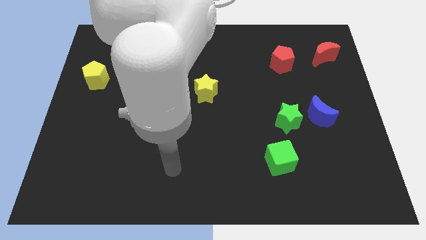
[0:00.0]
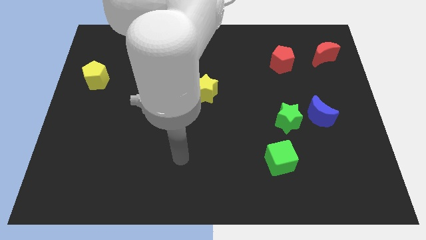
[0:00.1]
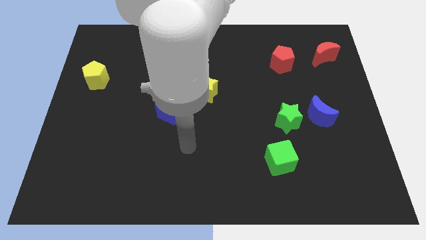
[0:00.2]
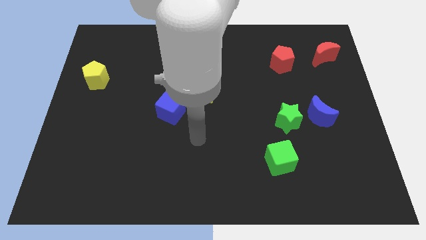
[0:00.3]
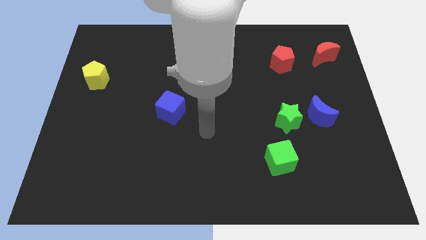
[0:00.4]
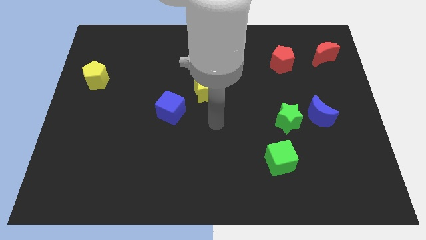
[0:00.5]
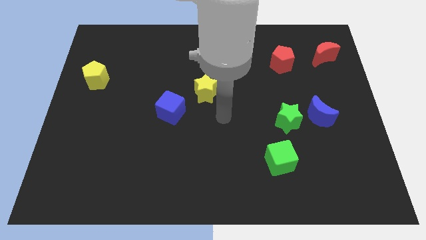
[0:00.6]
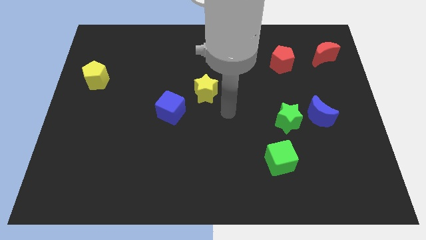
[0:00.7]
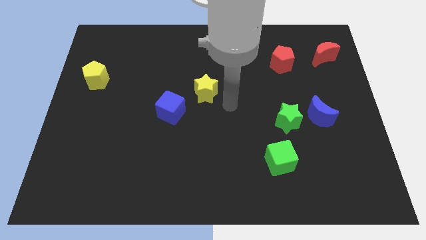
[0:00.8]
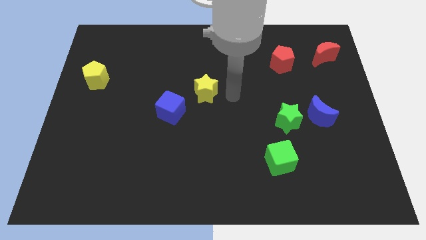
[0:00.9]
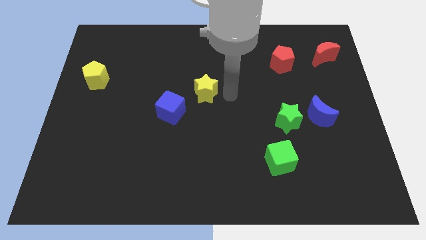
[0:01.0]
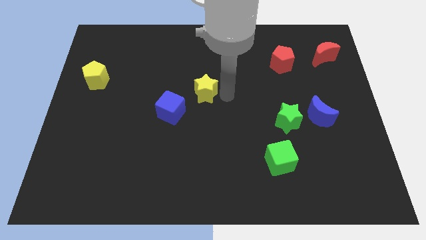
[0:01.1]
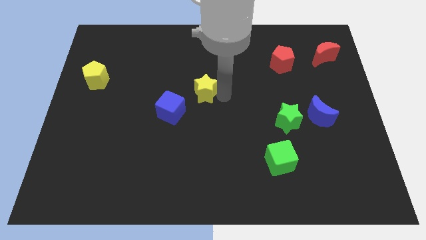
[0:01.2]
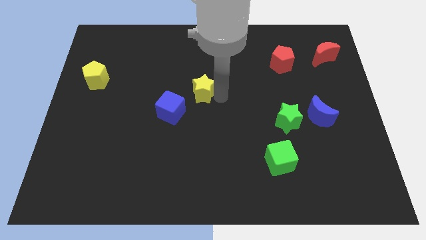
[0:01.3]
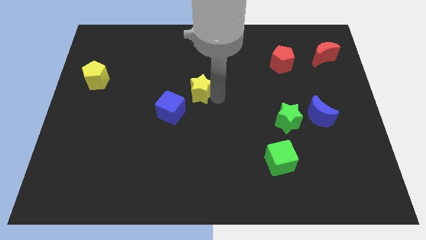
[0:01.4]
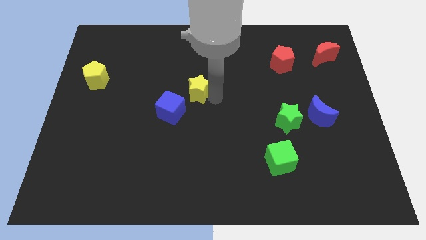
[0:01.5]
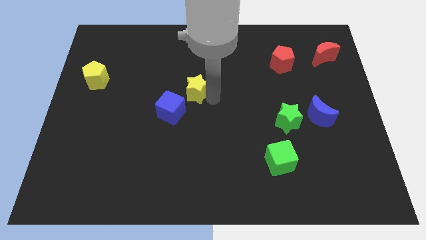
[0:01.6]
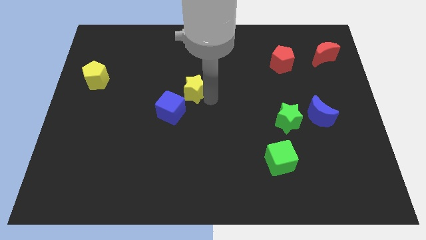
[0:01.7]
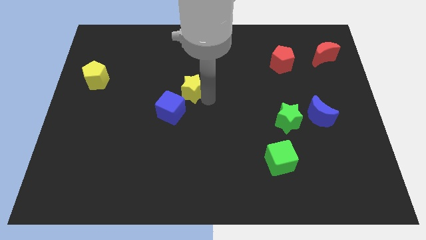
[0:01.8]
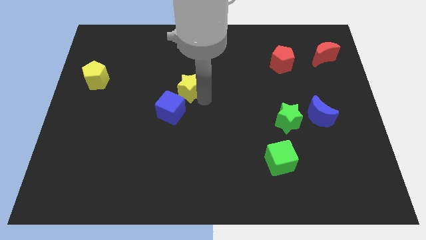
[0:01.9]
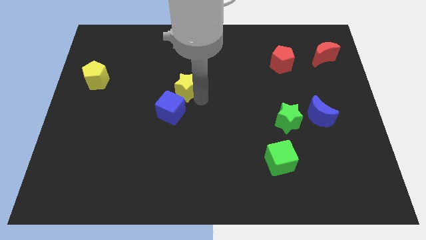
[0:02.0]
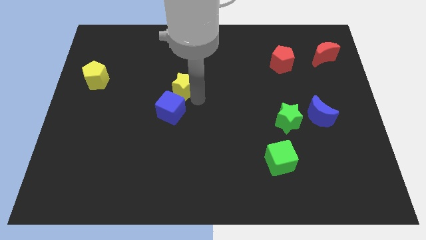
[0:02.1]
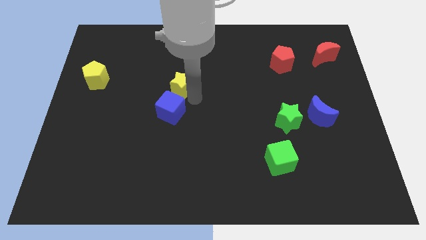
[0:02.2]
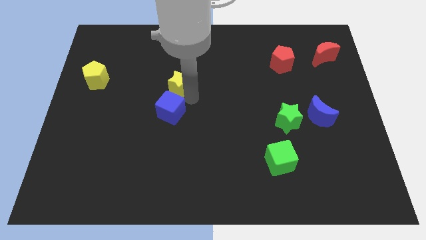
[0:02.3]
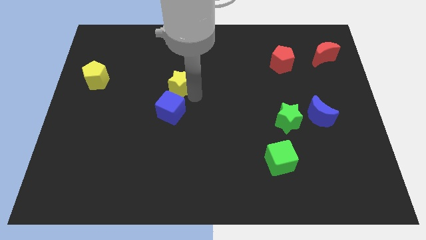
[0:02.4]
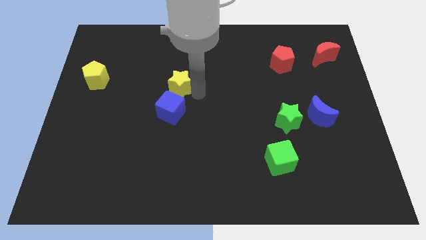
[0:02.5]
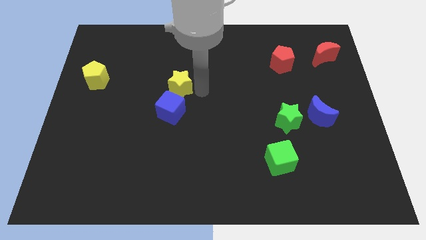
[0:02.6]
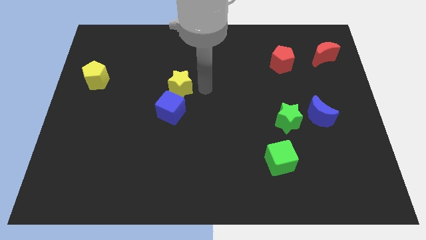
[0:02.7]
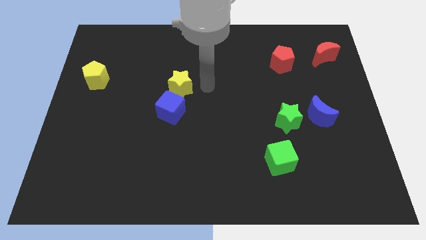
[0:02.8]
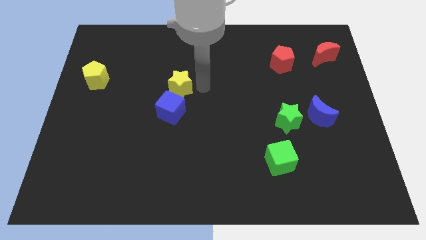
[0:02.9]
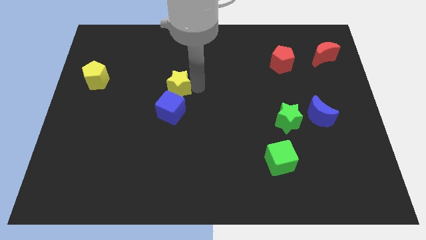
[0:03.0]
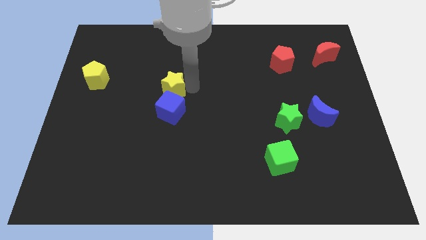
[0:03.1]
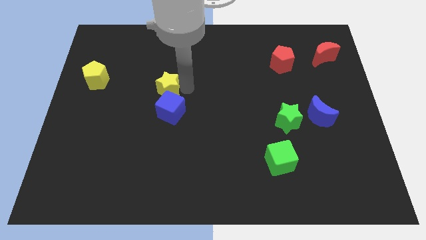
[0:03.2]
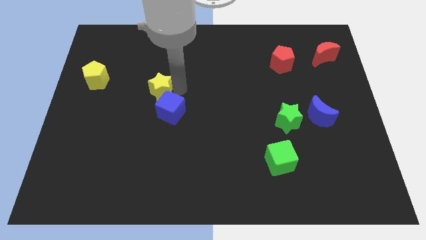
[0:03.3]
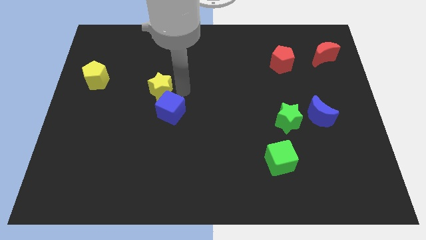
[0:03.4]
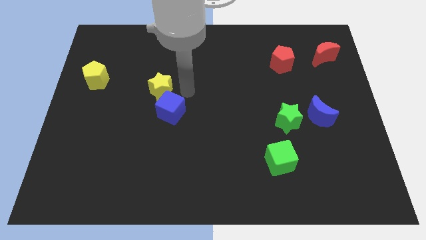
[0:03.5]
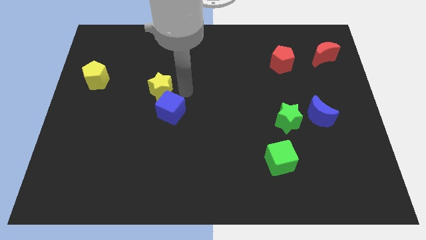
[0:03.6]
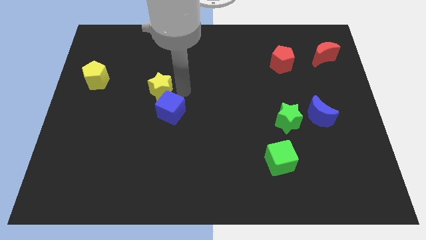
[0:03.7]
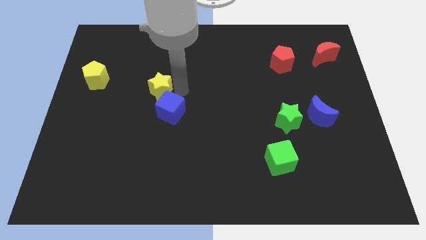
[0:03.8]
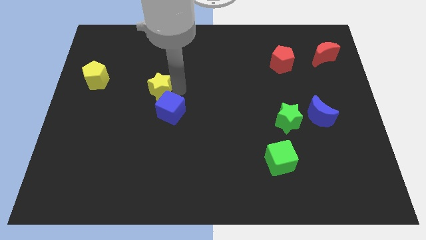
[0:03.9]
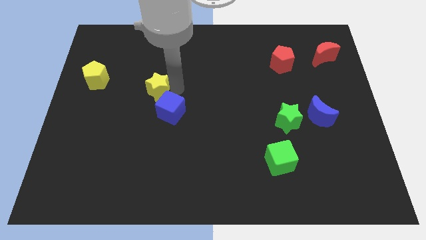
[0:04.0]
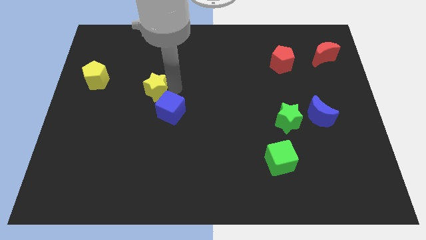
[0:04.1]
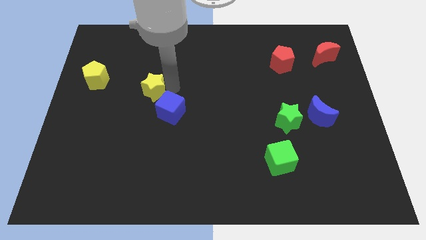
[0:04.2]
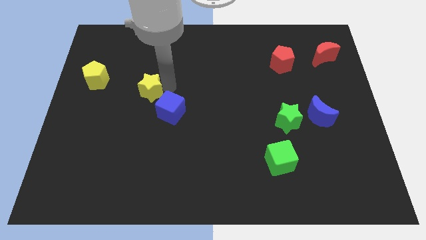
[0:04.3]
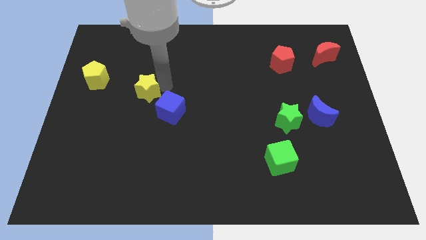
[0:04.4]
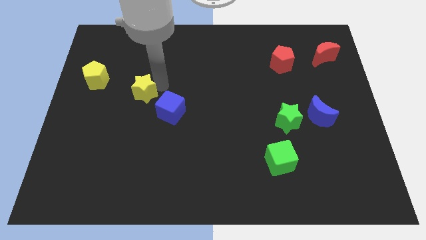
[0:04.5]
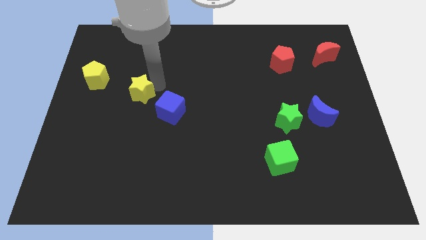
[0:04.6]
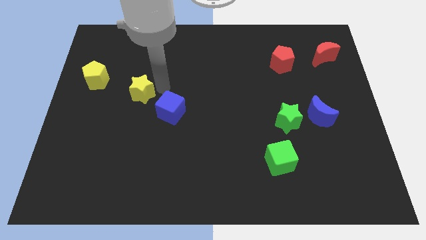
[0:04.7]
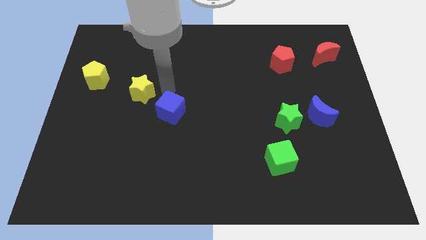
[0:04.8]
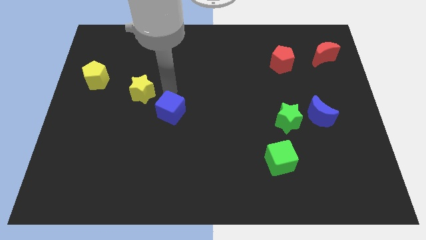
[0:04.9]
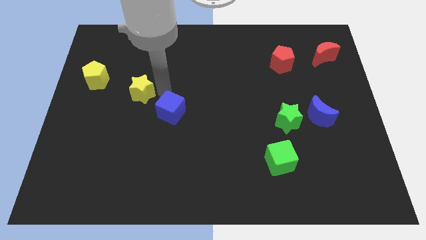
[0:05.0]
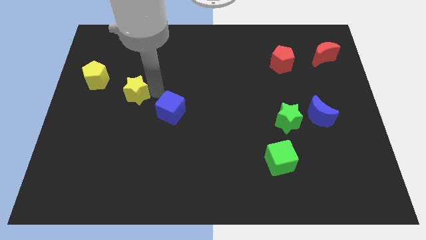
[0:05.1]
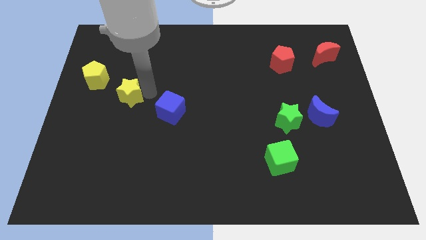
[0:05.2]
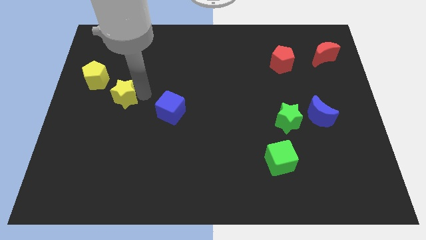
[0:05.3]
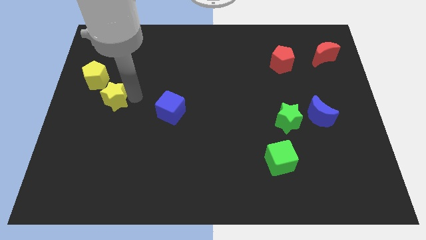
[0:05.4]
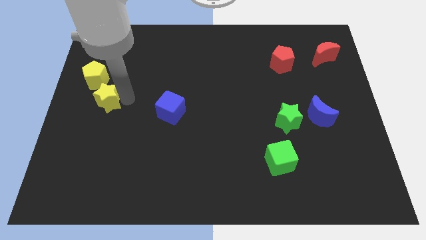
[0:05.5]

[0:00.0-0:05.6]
push the yellow star to the center left

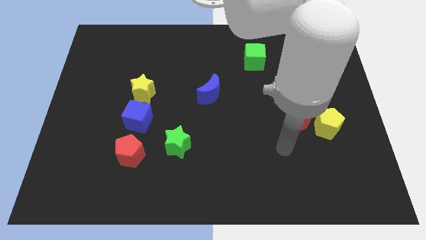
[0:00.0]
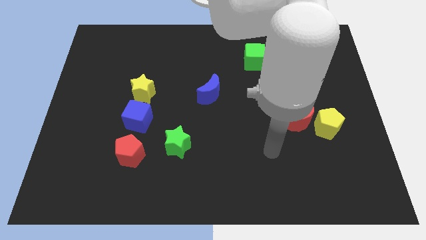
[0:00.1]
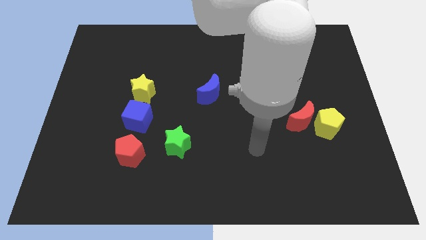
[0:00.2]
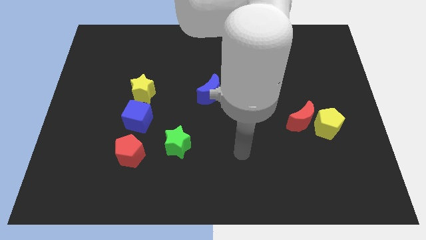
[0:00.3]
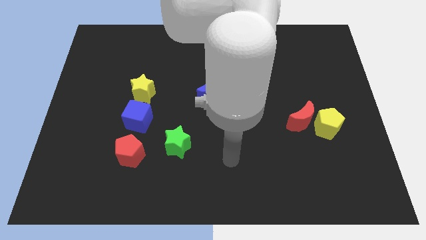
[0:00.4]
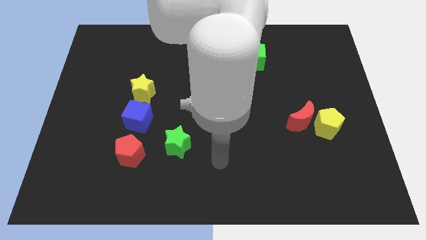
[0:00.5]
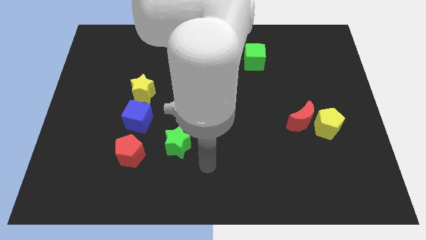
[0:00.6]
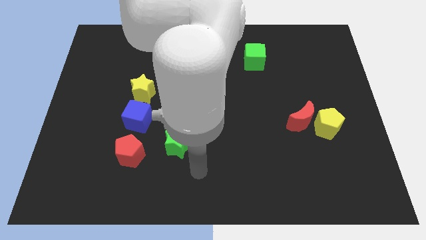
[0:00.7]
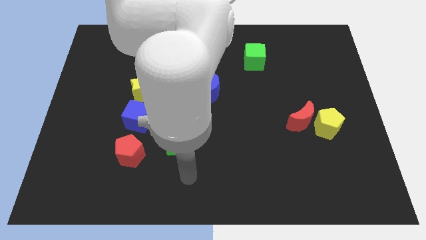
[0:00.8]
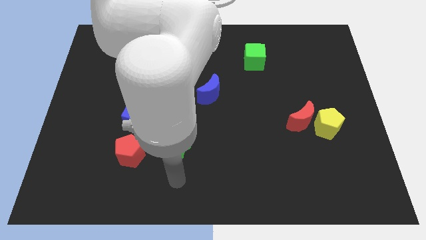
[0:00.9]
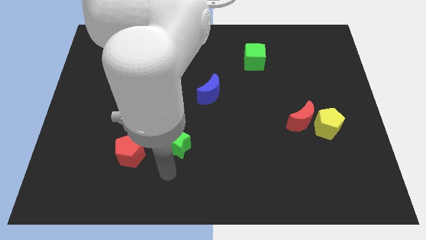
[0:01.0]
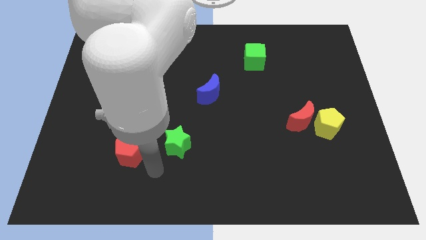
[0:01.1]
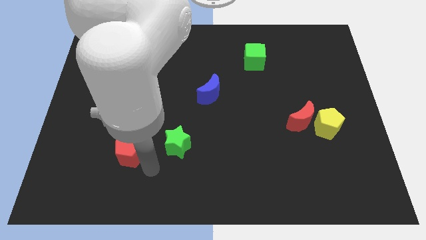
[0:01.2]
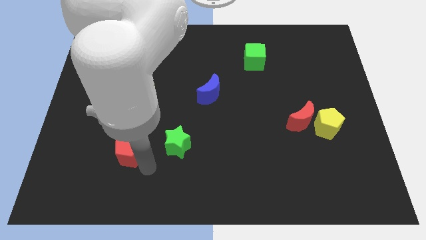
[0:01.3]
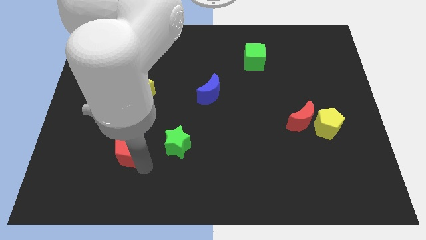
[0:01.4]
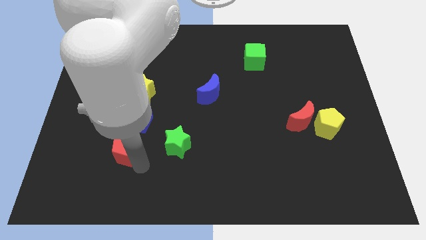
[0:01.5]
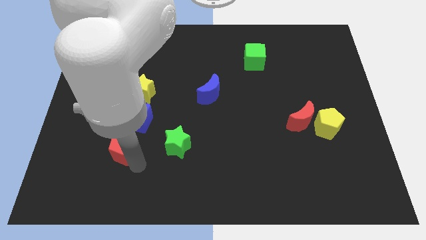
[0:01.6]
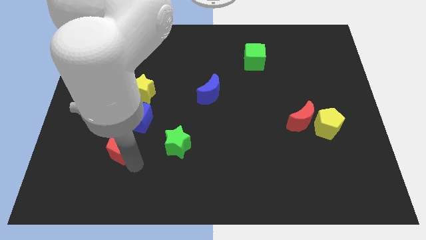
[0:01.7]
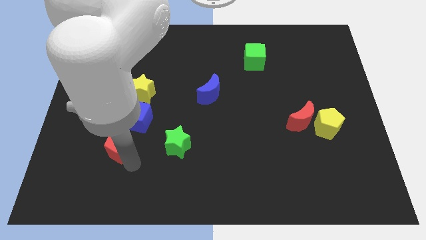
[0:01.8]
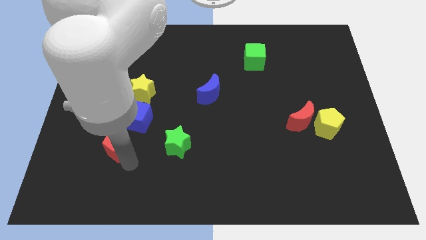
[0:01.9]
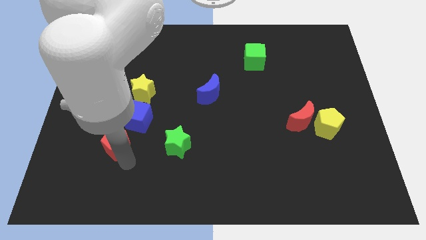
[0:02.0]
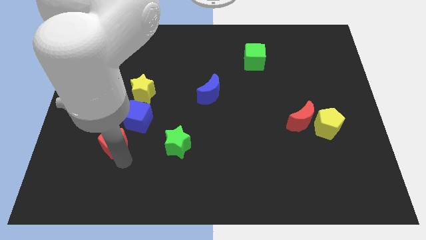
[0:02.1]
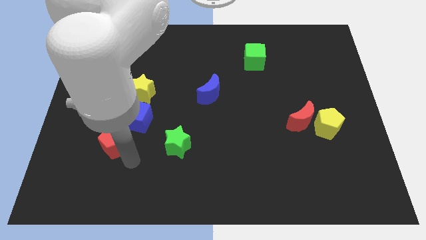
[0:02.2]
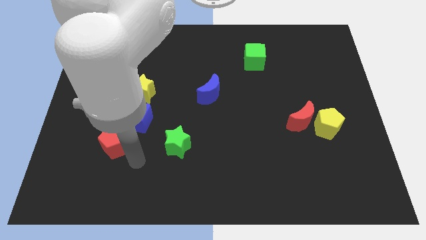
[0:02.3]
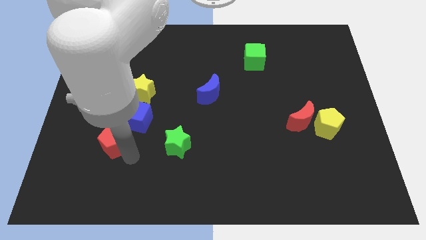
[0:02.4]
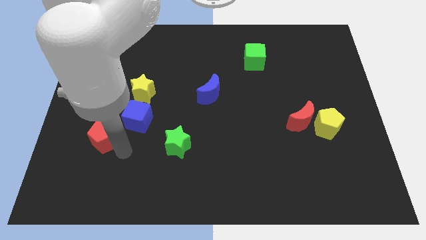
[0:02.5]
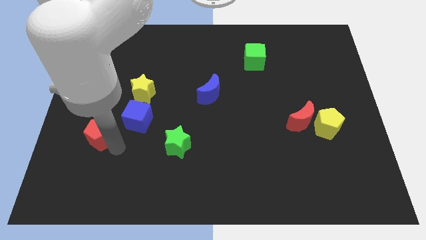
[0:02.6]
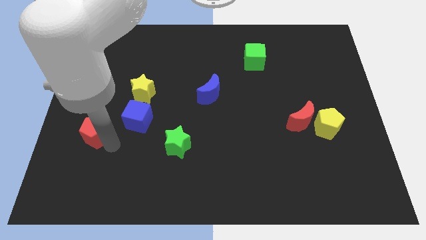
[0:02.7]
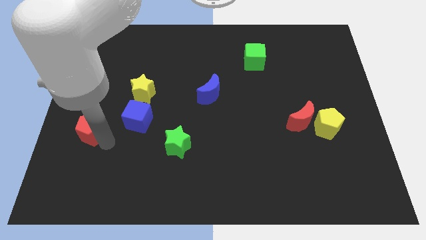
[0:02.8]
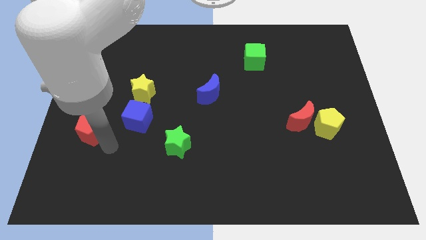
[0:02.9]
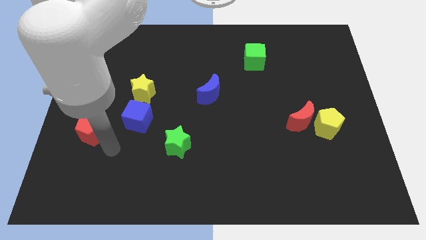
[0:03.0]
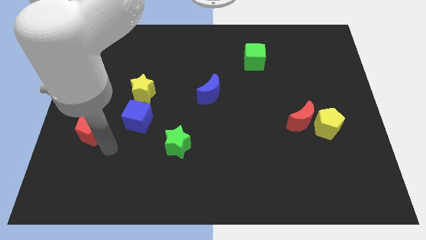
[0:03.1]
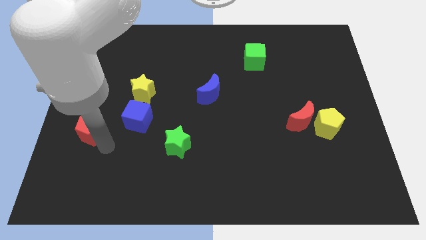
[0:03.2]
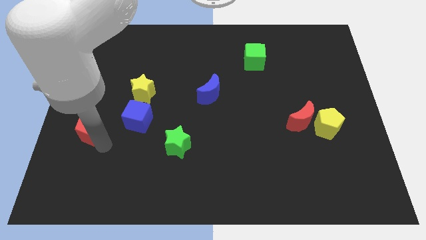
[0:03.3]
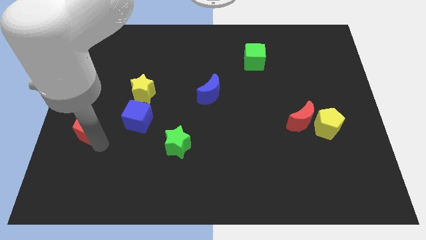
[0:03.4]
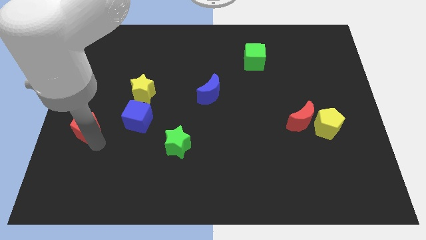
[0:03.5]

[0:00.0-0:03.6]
put the red pentagon to the center left
